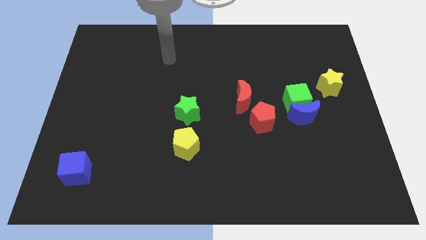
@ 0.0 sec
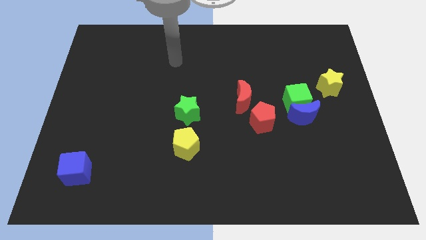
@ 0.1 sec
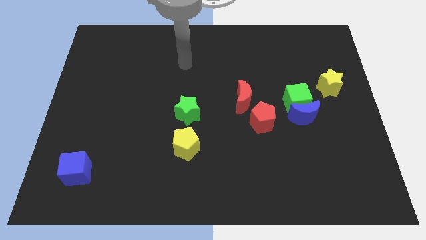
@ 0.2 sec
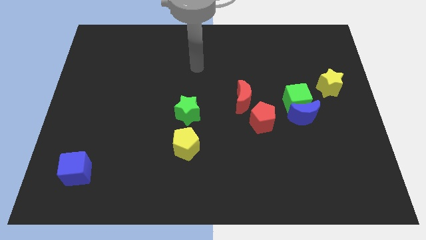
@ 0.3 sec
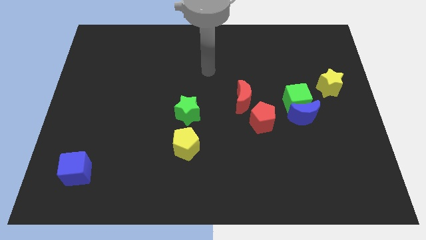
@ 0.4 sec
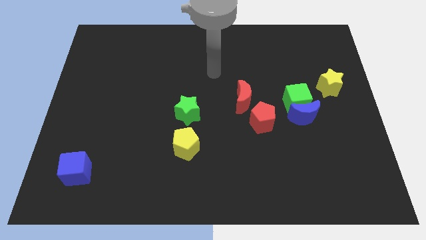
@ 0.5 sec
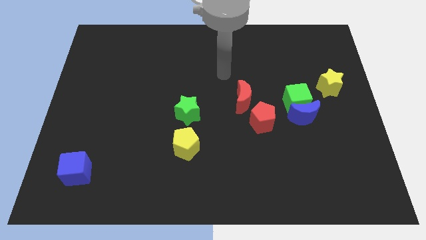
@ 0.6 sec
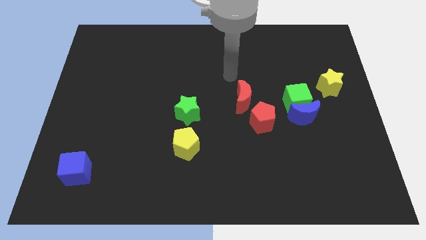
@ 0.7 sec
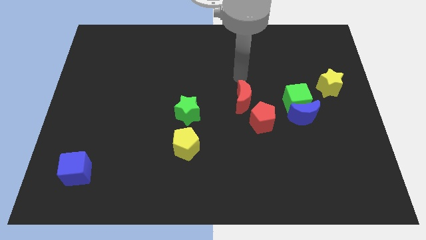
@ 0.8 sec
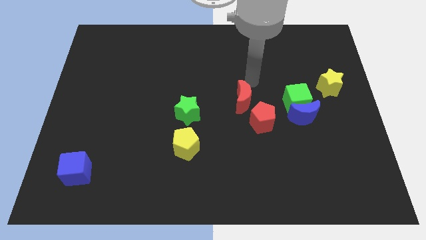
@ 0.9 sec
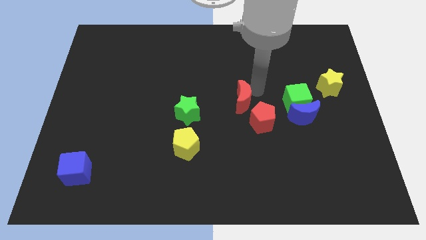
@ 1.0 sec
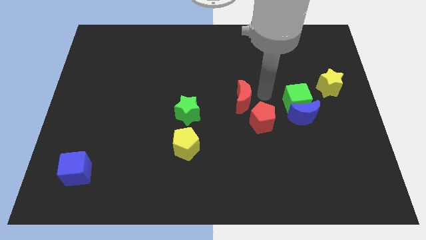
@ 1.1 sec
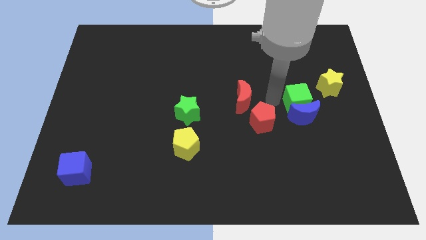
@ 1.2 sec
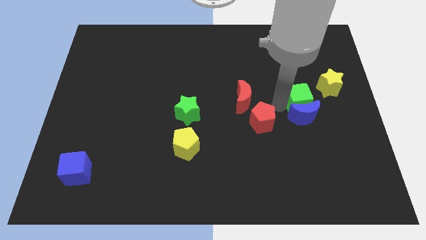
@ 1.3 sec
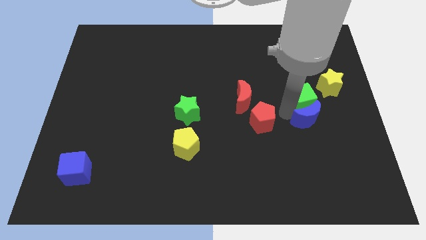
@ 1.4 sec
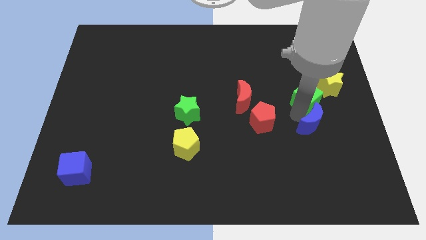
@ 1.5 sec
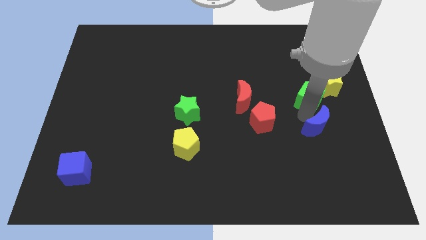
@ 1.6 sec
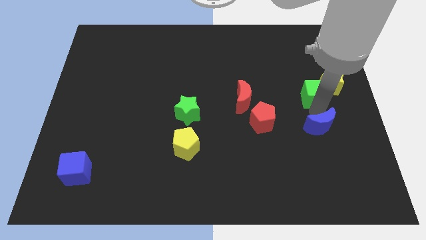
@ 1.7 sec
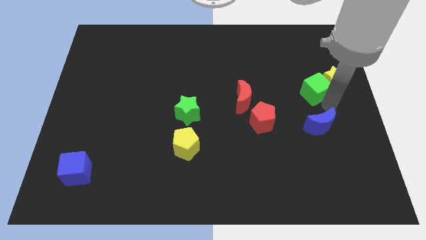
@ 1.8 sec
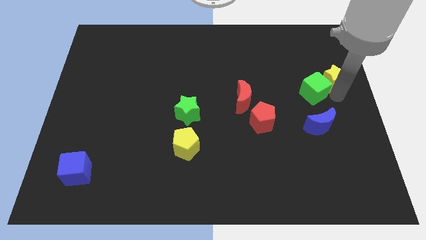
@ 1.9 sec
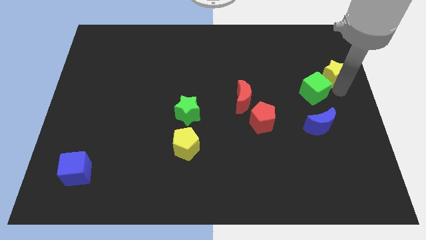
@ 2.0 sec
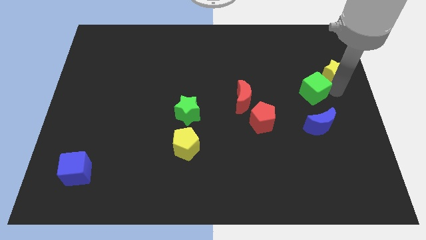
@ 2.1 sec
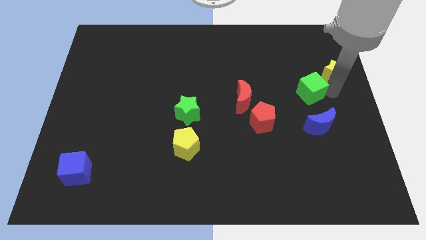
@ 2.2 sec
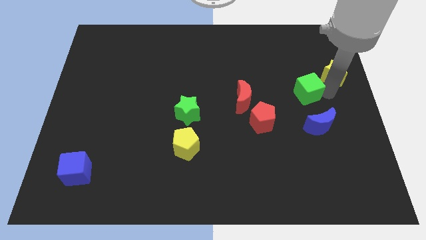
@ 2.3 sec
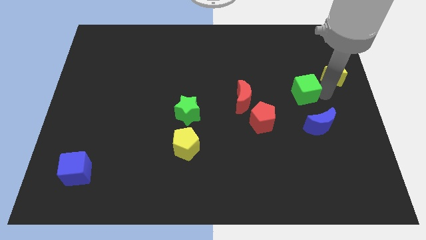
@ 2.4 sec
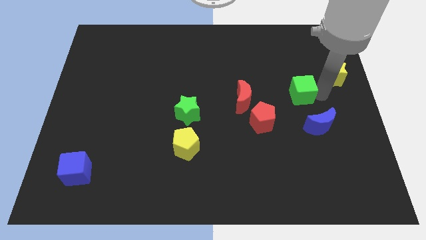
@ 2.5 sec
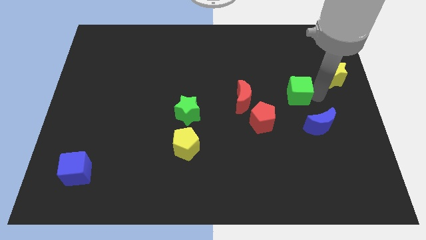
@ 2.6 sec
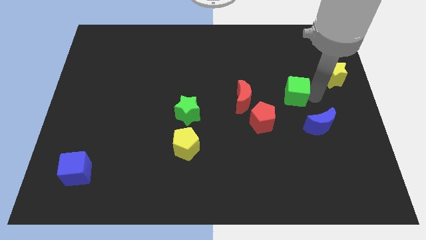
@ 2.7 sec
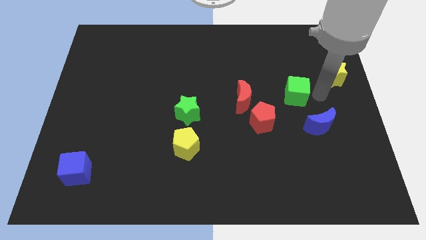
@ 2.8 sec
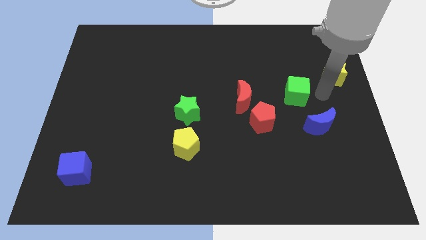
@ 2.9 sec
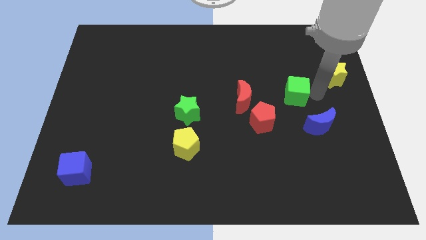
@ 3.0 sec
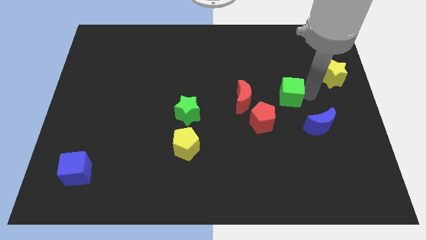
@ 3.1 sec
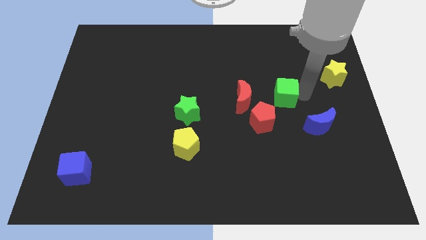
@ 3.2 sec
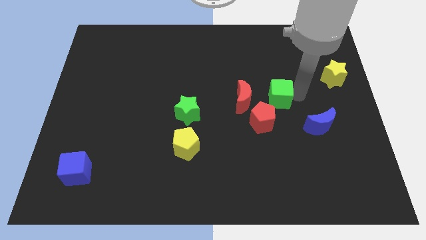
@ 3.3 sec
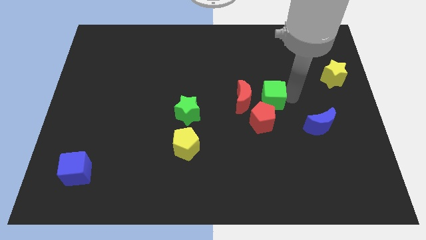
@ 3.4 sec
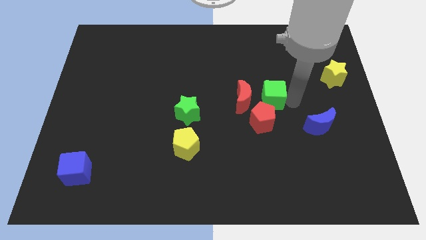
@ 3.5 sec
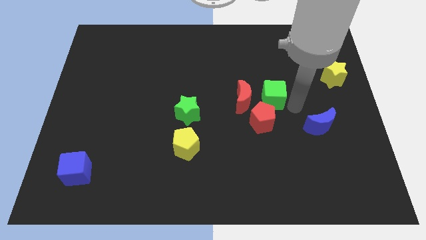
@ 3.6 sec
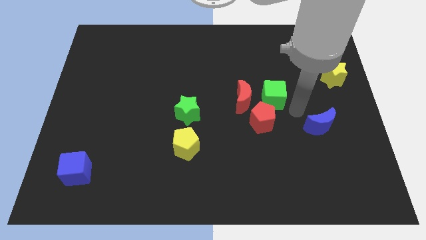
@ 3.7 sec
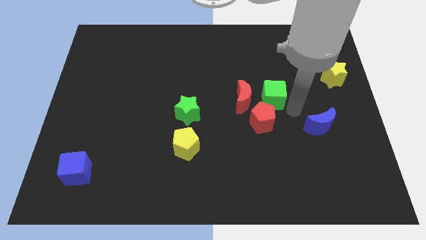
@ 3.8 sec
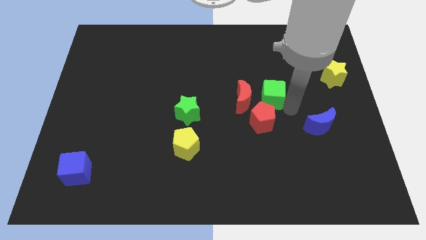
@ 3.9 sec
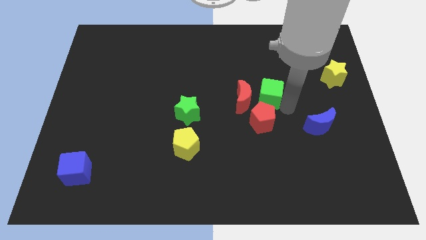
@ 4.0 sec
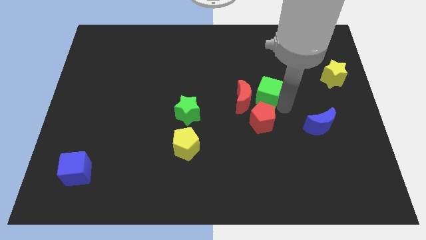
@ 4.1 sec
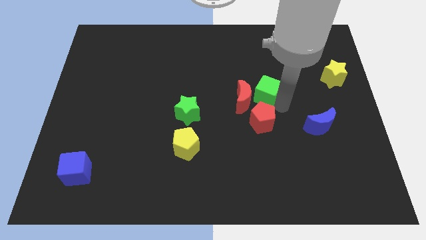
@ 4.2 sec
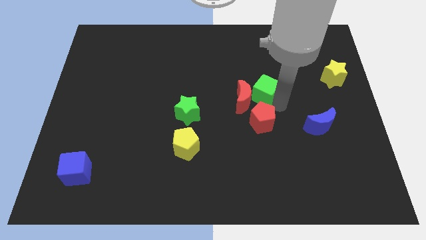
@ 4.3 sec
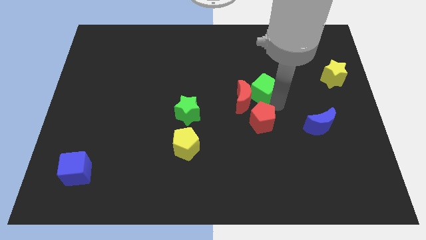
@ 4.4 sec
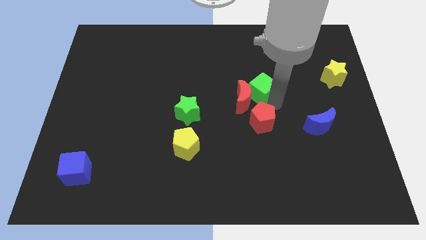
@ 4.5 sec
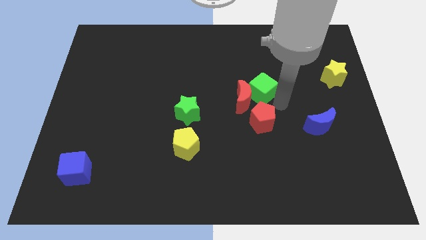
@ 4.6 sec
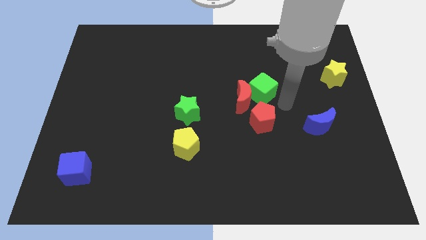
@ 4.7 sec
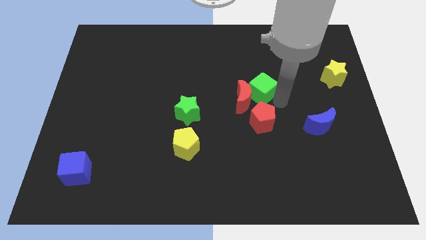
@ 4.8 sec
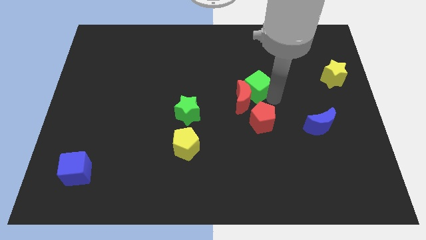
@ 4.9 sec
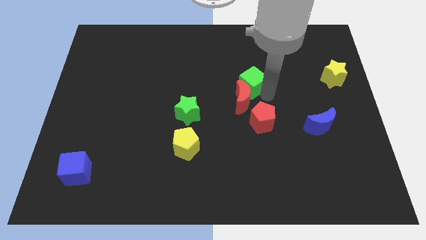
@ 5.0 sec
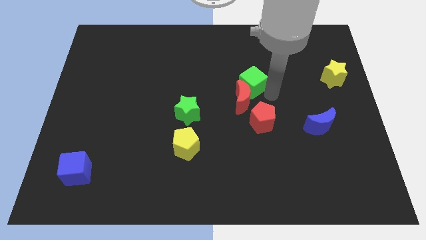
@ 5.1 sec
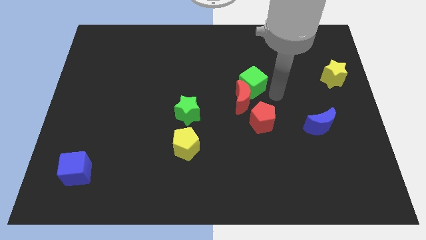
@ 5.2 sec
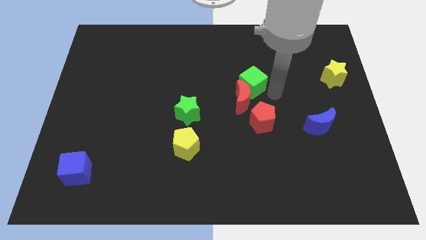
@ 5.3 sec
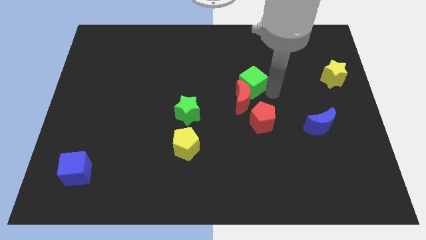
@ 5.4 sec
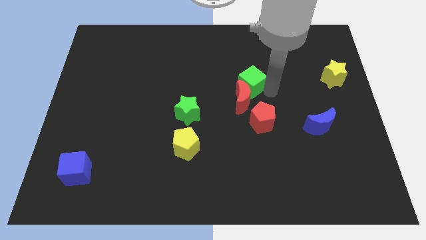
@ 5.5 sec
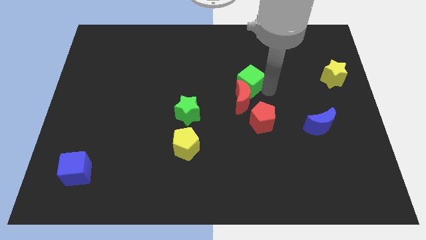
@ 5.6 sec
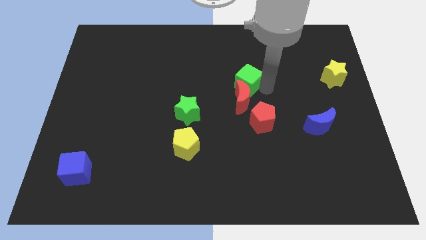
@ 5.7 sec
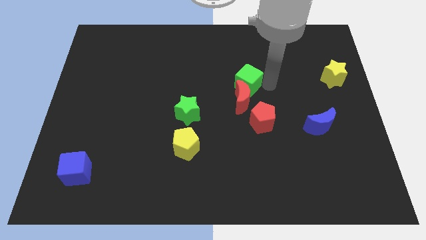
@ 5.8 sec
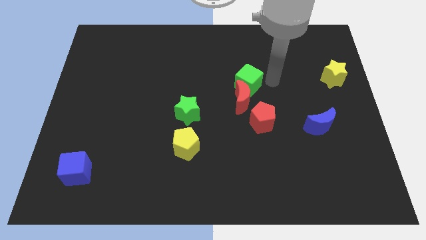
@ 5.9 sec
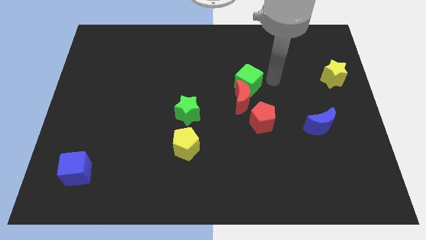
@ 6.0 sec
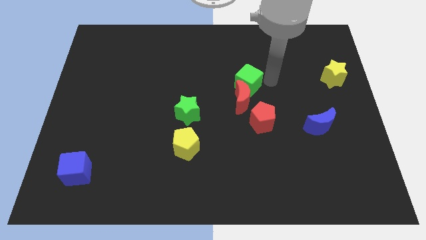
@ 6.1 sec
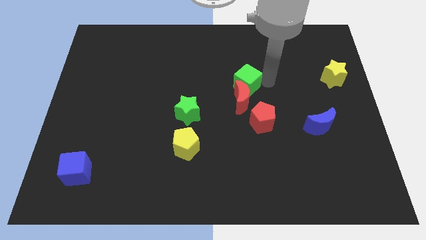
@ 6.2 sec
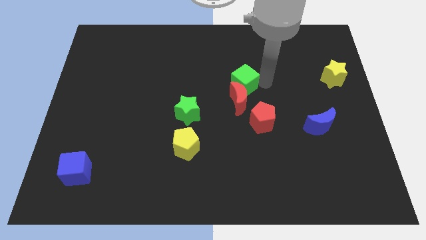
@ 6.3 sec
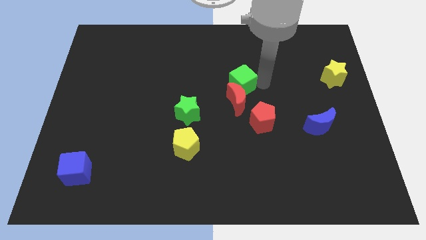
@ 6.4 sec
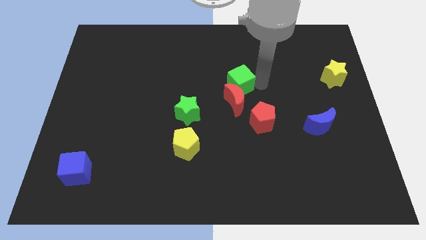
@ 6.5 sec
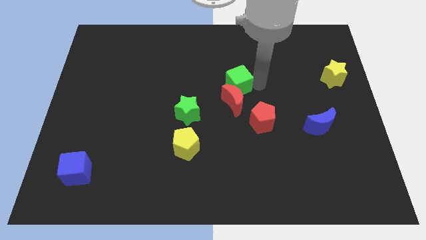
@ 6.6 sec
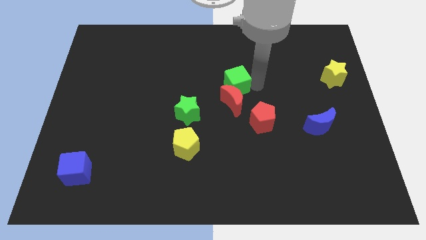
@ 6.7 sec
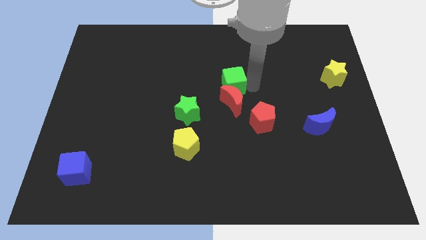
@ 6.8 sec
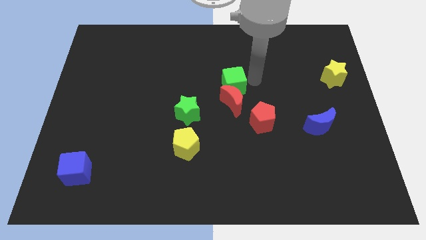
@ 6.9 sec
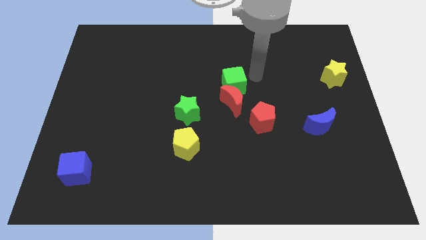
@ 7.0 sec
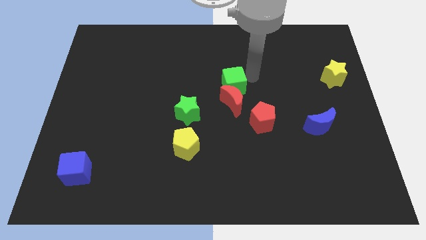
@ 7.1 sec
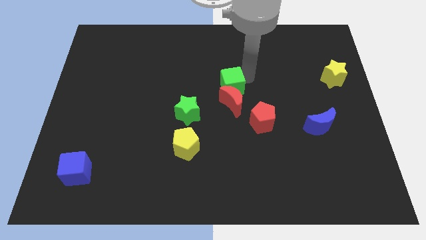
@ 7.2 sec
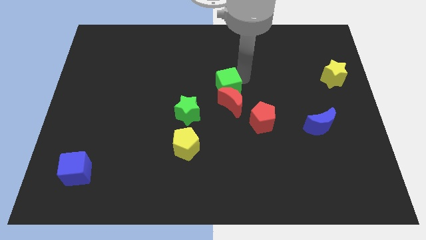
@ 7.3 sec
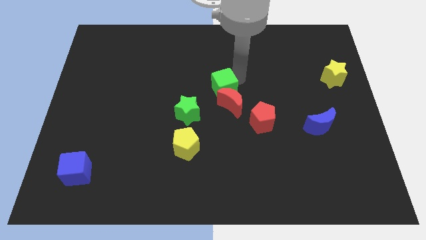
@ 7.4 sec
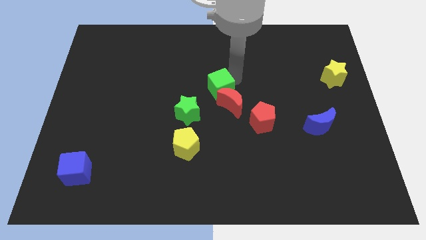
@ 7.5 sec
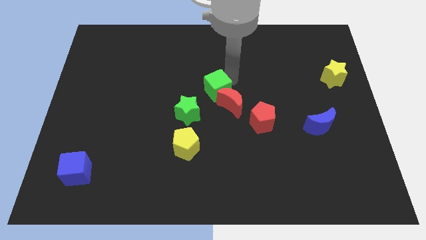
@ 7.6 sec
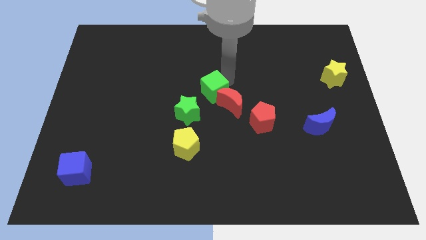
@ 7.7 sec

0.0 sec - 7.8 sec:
slide the green cube left of the red moon
